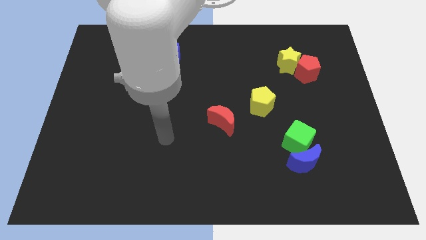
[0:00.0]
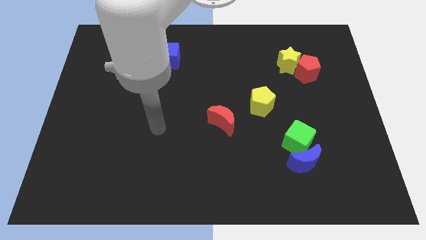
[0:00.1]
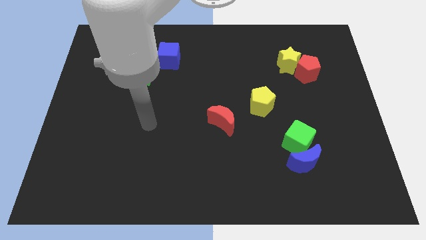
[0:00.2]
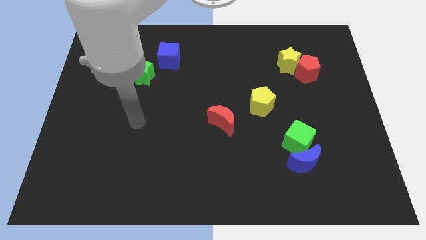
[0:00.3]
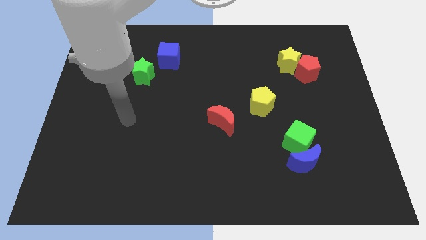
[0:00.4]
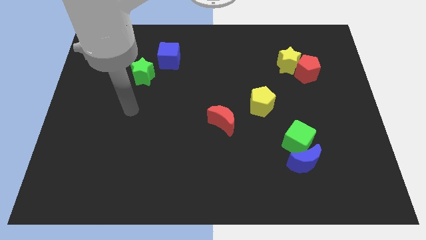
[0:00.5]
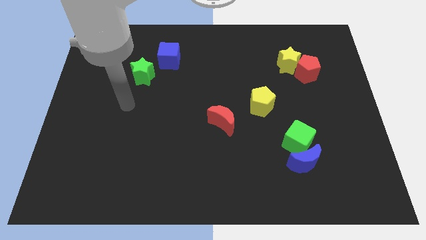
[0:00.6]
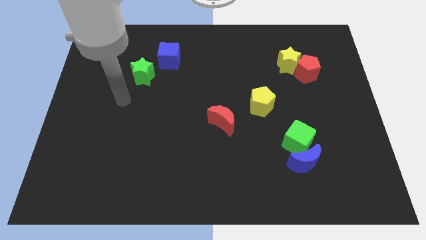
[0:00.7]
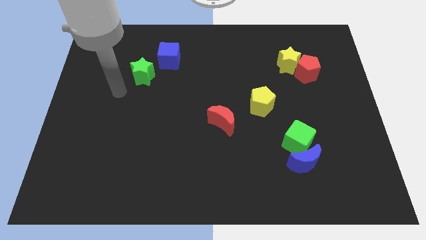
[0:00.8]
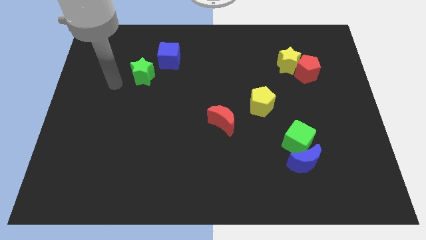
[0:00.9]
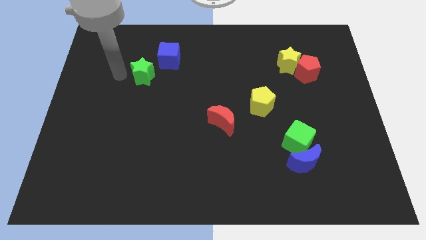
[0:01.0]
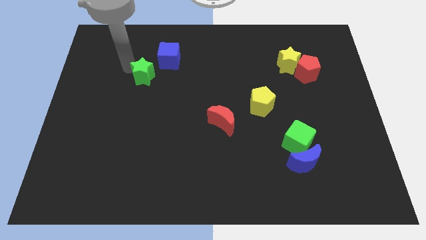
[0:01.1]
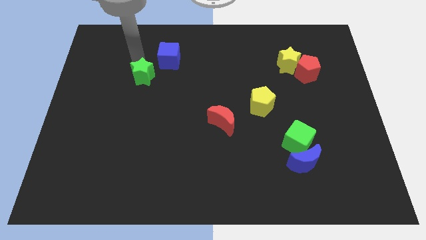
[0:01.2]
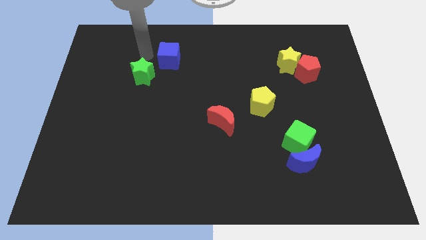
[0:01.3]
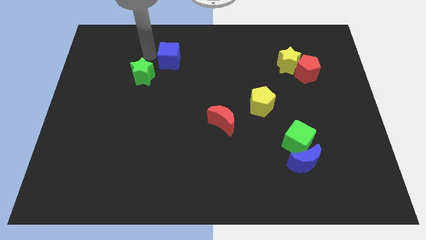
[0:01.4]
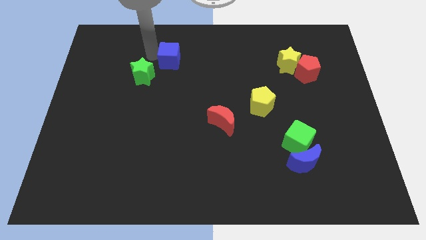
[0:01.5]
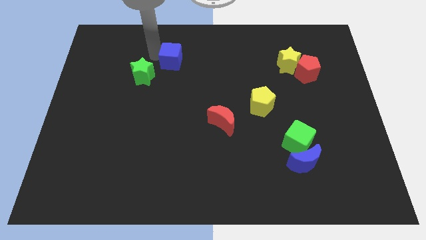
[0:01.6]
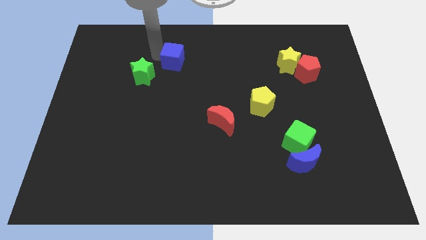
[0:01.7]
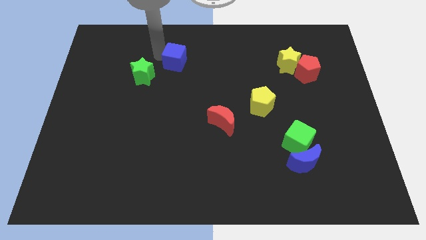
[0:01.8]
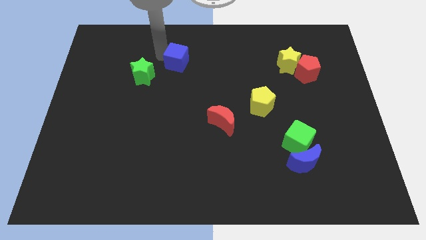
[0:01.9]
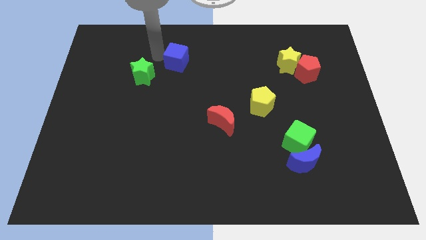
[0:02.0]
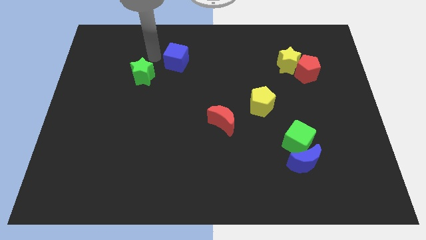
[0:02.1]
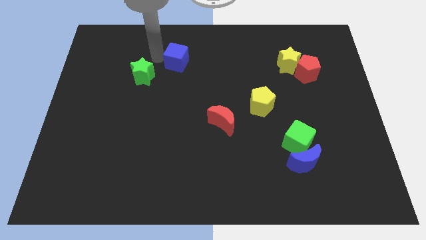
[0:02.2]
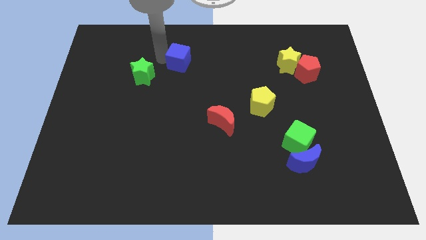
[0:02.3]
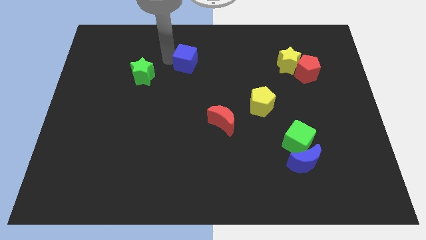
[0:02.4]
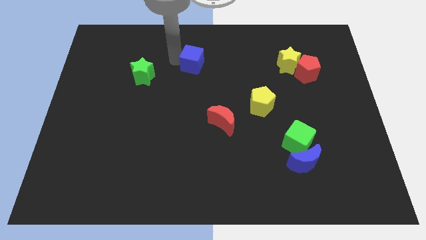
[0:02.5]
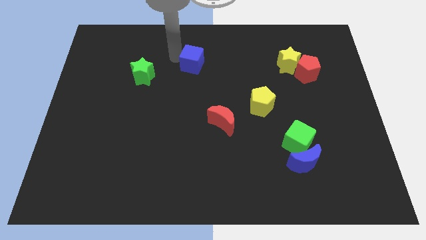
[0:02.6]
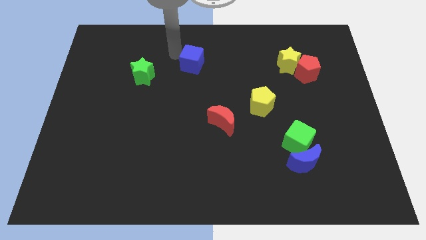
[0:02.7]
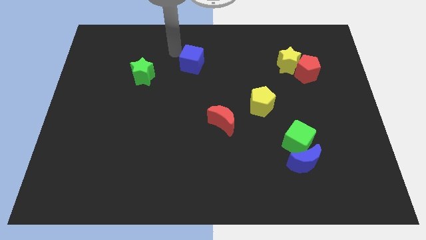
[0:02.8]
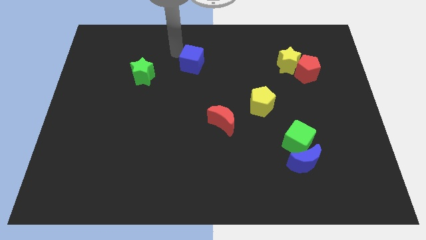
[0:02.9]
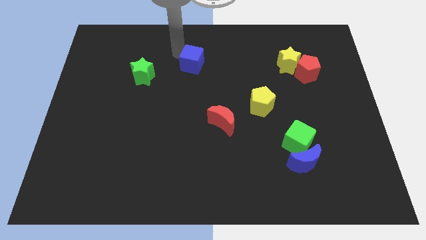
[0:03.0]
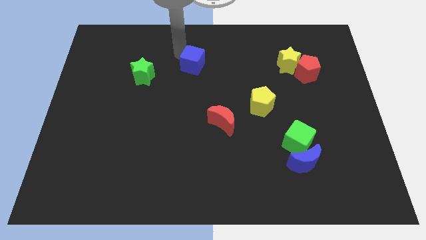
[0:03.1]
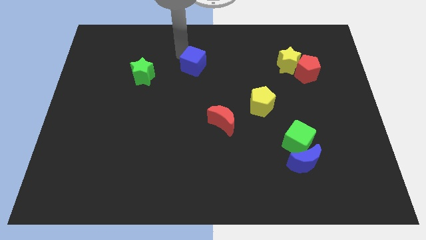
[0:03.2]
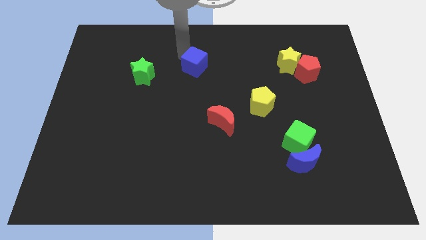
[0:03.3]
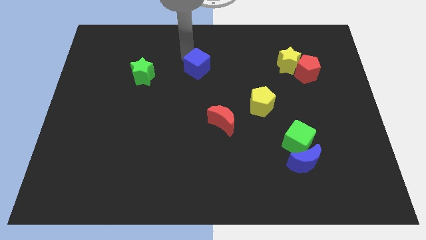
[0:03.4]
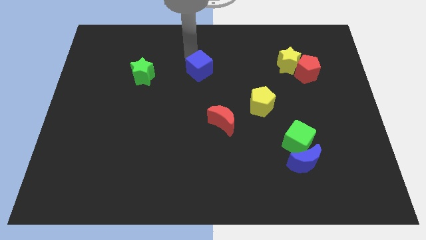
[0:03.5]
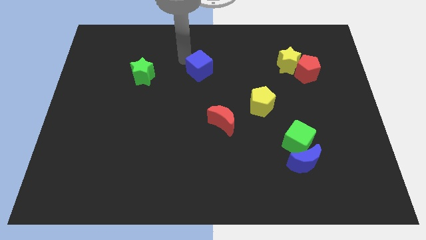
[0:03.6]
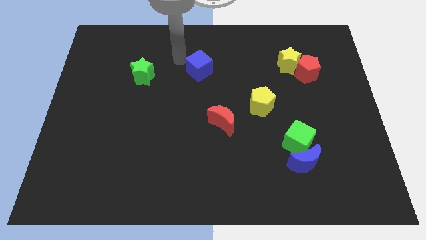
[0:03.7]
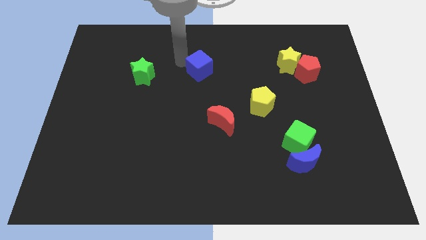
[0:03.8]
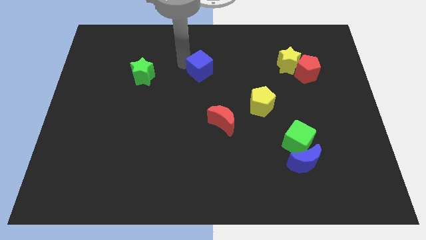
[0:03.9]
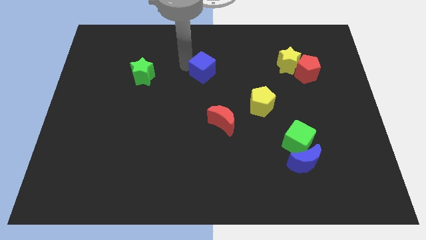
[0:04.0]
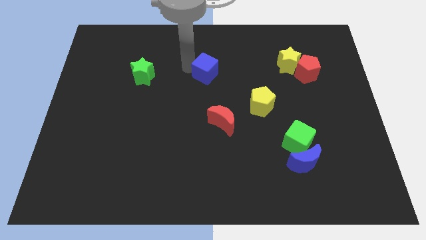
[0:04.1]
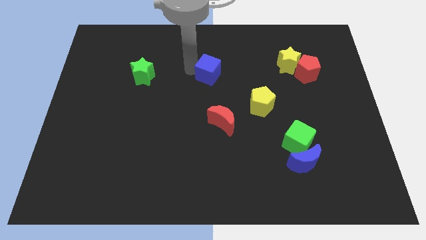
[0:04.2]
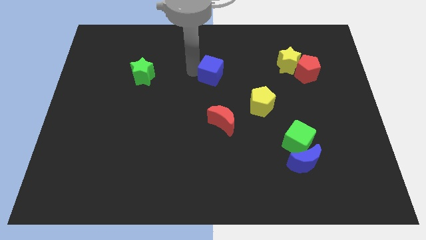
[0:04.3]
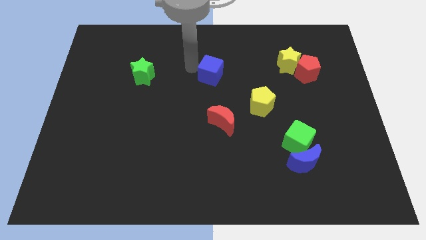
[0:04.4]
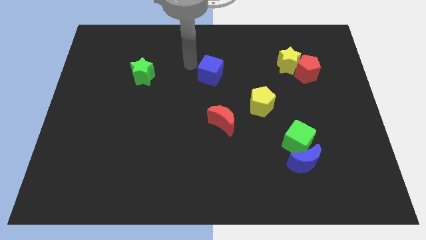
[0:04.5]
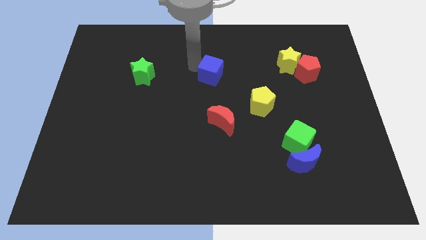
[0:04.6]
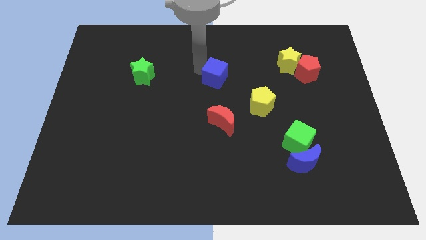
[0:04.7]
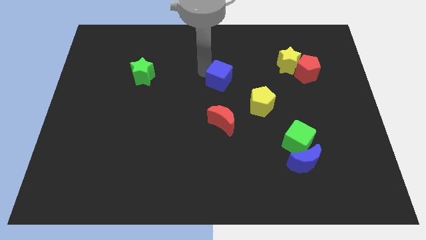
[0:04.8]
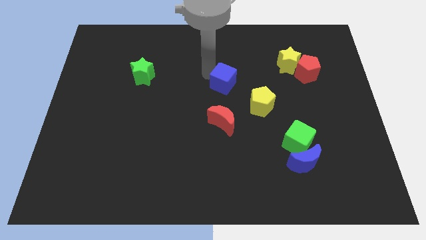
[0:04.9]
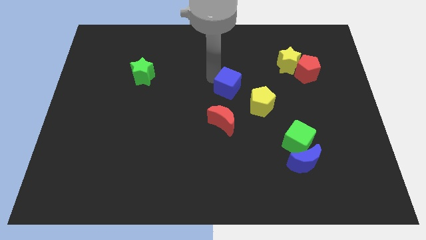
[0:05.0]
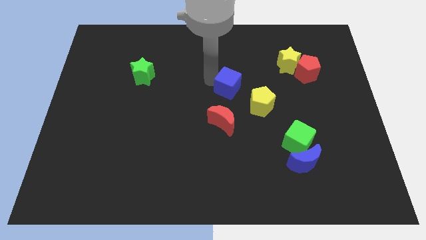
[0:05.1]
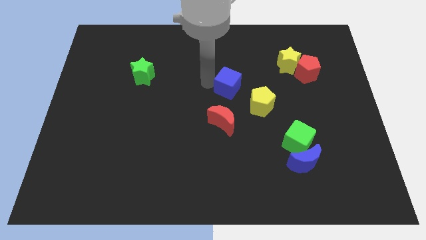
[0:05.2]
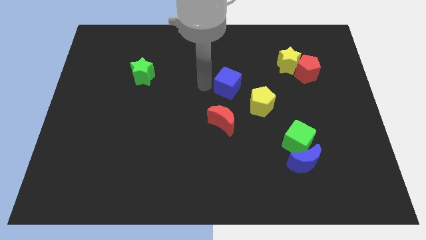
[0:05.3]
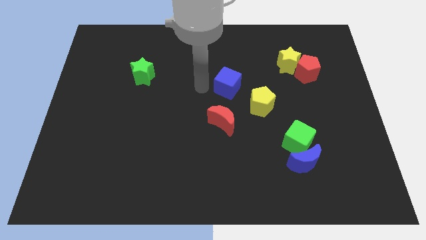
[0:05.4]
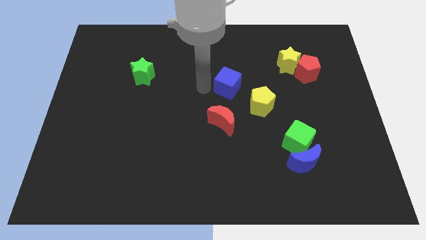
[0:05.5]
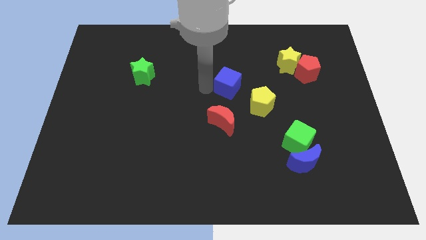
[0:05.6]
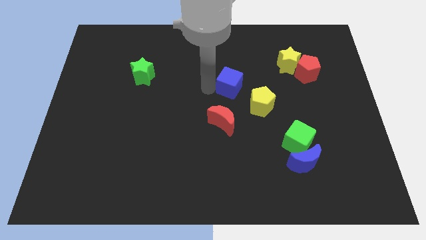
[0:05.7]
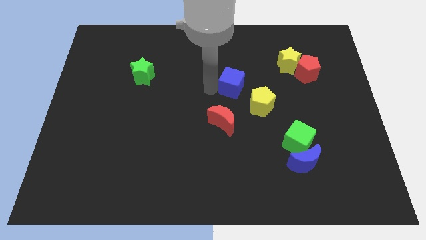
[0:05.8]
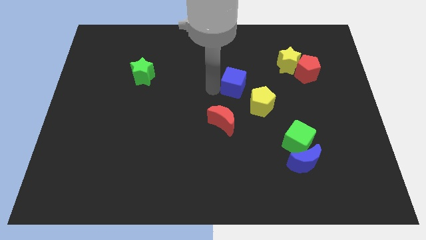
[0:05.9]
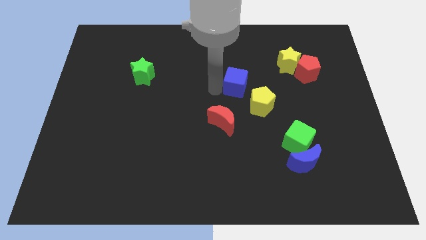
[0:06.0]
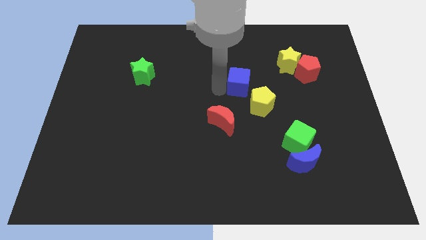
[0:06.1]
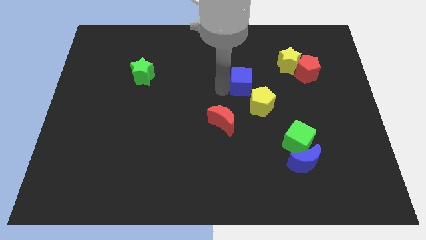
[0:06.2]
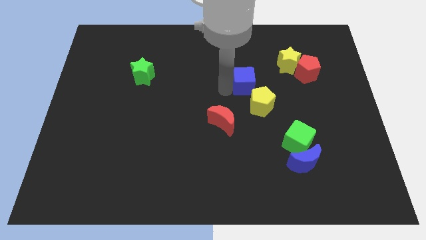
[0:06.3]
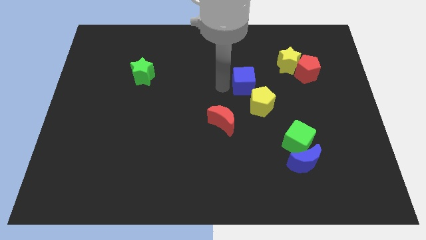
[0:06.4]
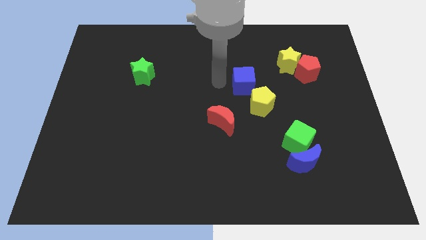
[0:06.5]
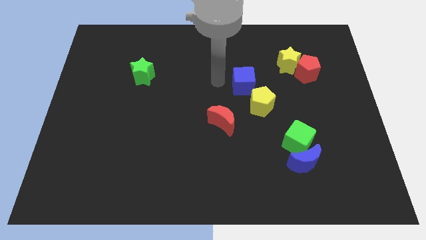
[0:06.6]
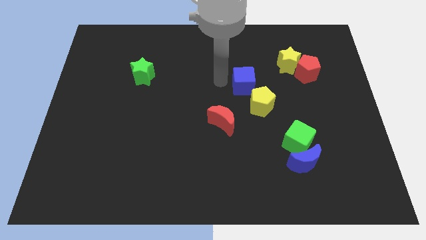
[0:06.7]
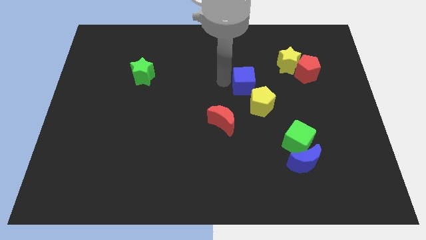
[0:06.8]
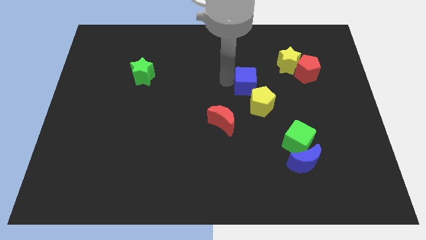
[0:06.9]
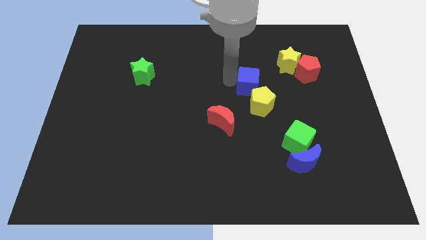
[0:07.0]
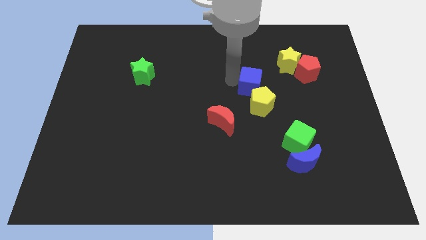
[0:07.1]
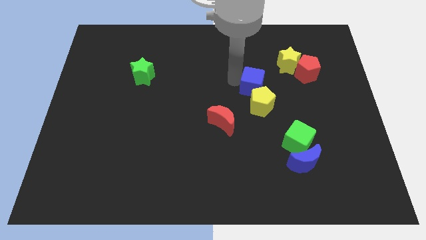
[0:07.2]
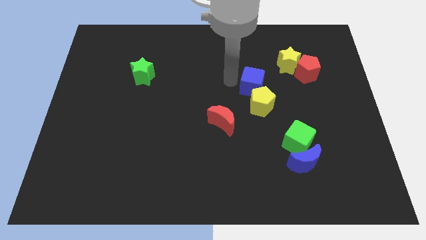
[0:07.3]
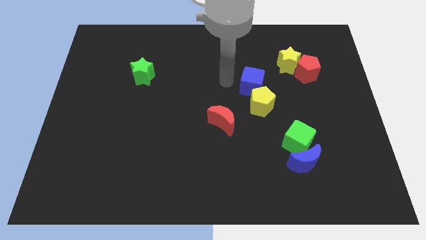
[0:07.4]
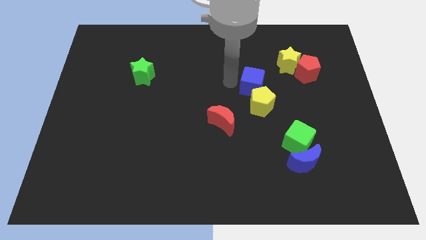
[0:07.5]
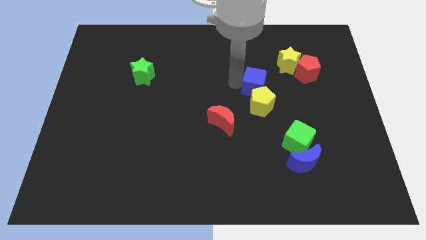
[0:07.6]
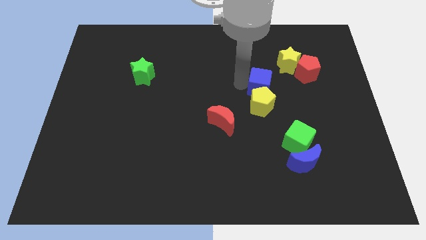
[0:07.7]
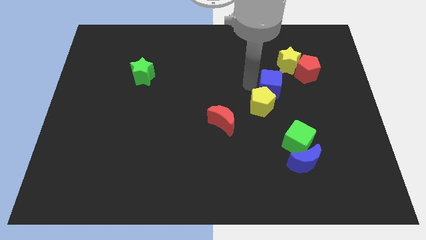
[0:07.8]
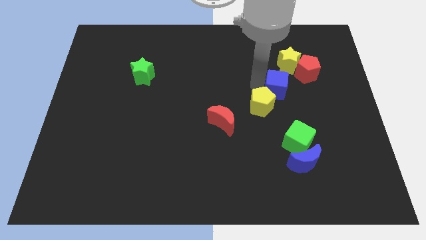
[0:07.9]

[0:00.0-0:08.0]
put the blue cube to the bottom side of the yellow star
